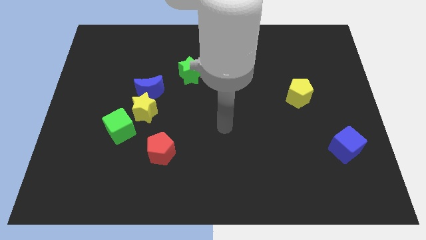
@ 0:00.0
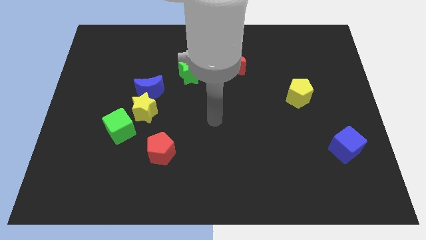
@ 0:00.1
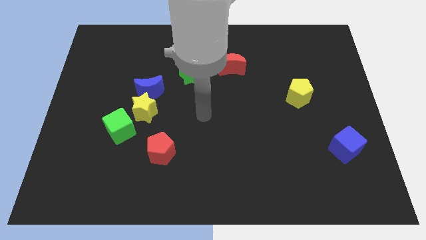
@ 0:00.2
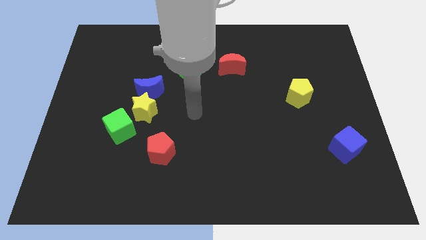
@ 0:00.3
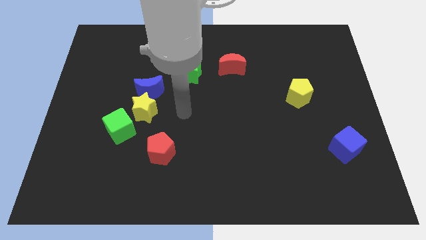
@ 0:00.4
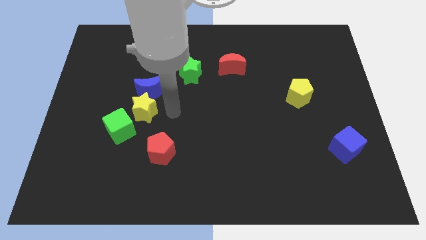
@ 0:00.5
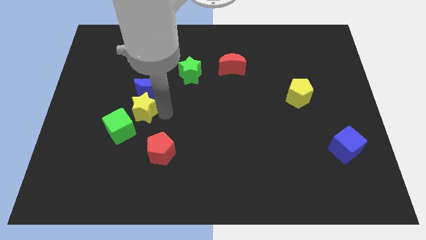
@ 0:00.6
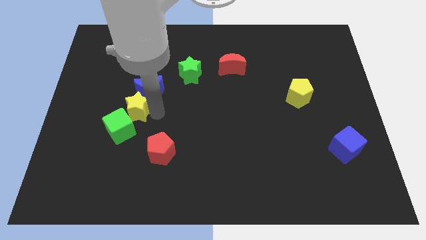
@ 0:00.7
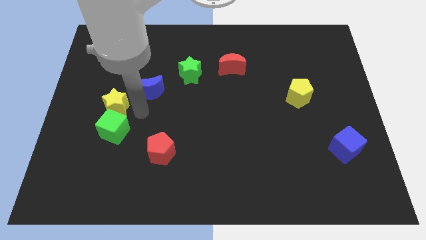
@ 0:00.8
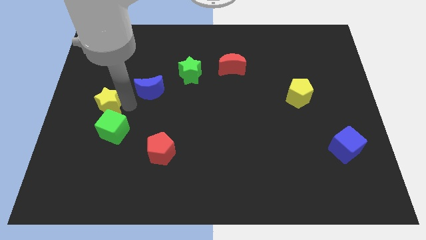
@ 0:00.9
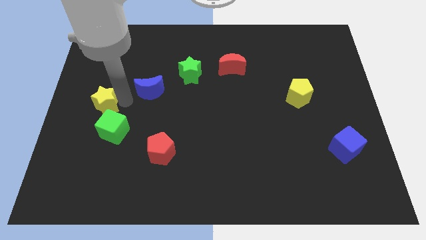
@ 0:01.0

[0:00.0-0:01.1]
move the blue moon away from the yellow star

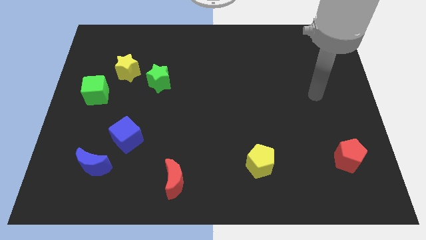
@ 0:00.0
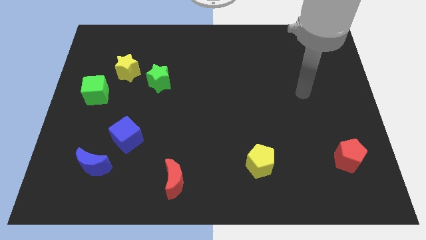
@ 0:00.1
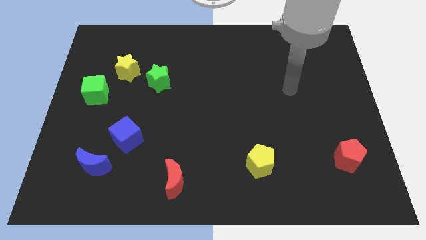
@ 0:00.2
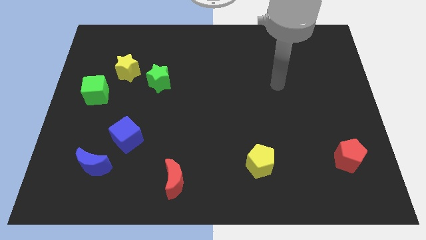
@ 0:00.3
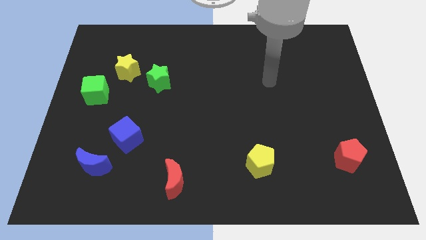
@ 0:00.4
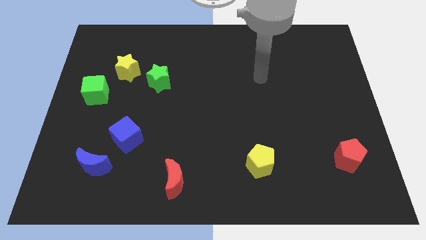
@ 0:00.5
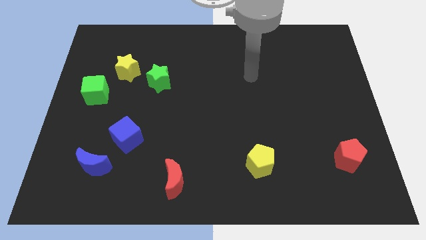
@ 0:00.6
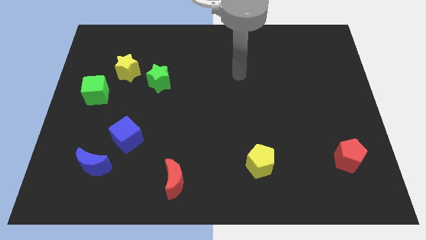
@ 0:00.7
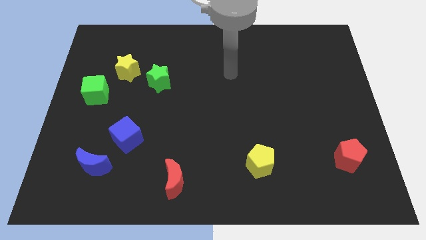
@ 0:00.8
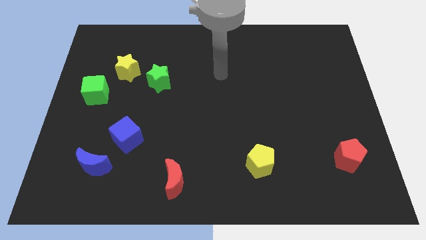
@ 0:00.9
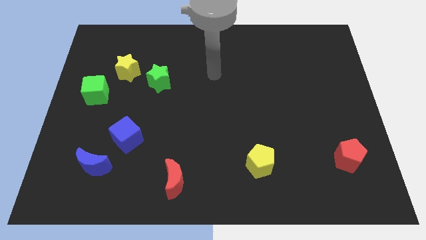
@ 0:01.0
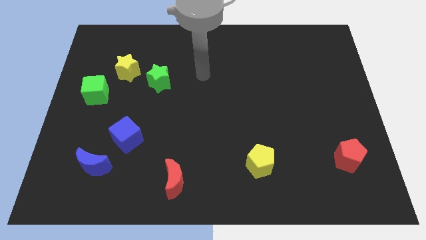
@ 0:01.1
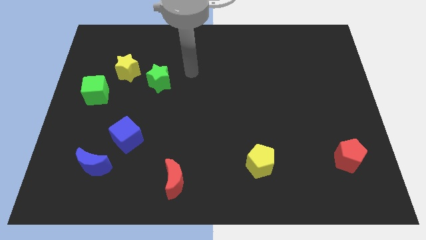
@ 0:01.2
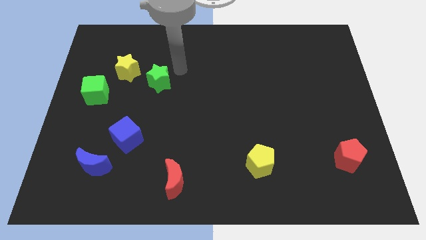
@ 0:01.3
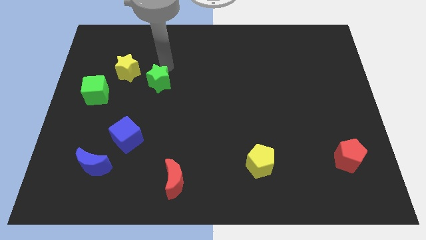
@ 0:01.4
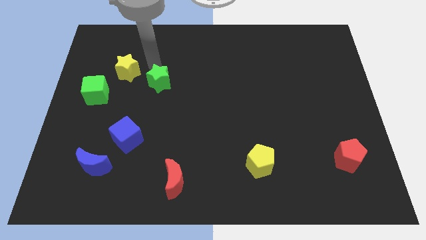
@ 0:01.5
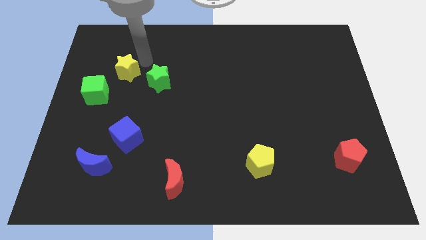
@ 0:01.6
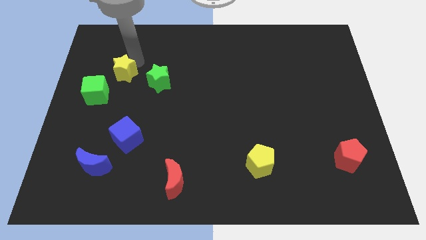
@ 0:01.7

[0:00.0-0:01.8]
separate the green star from the yellow star

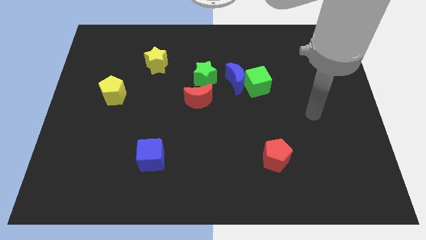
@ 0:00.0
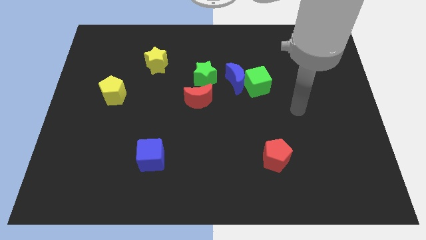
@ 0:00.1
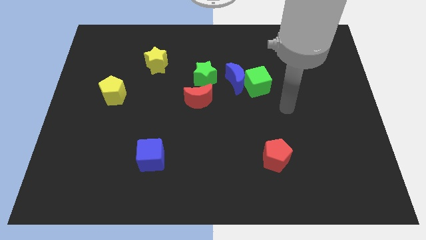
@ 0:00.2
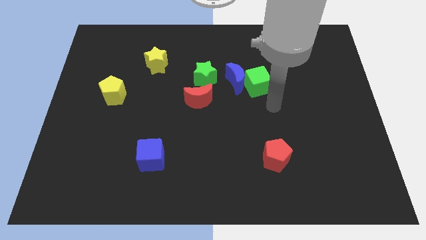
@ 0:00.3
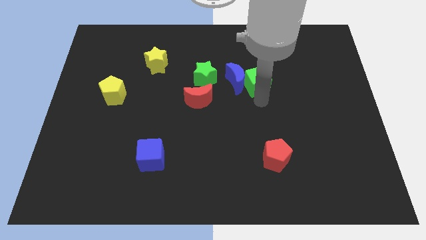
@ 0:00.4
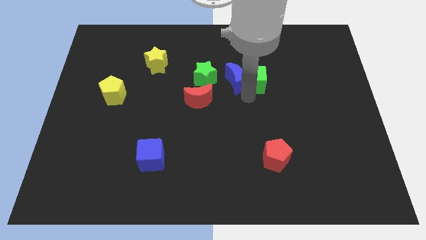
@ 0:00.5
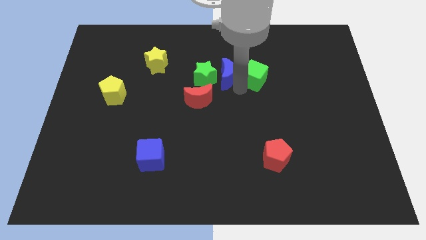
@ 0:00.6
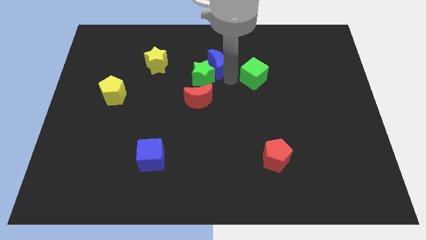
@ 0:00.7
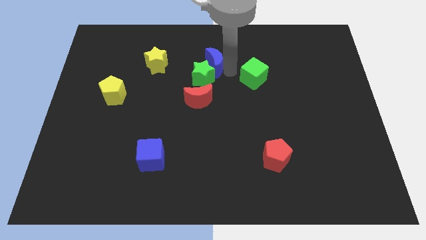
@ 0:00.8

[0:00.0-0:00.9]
pull the green cube apart from the blue moon

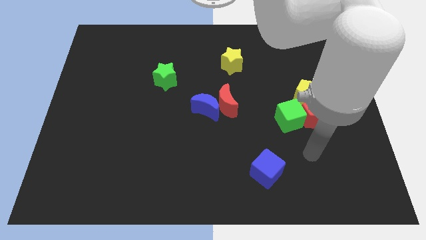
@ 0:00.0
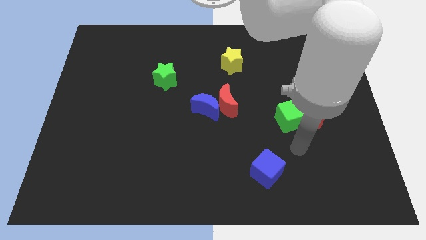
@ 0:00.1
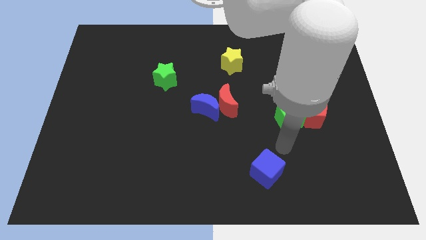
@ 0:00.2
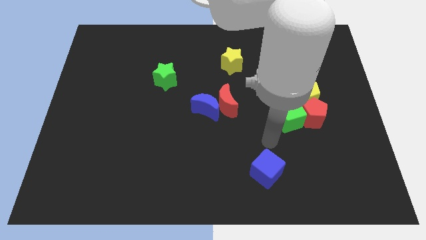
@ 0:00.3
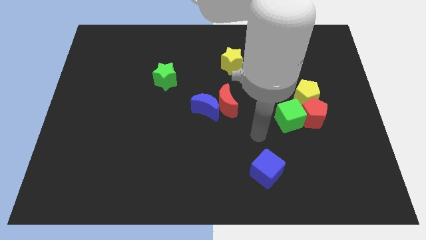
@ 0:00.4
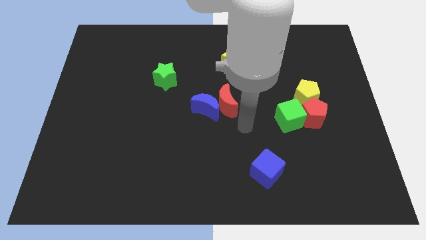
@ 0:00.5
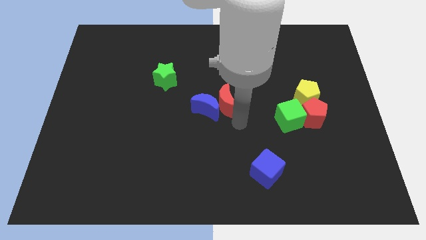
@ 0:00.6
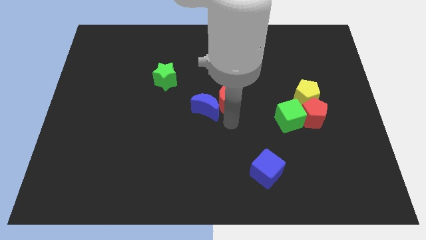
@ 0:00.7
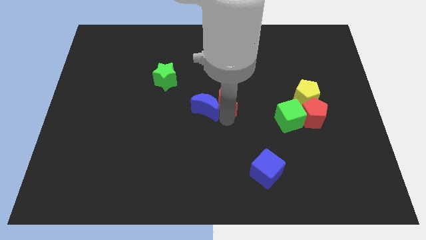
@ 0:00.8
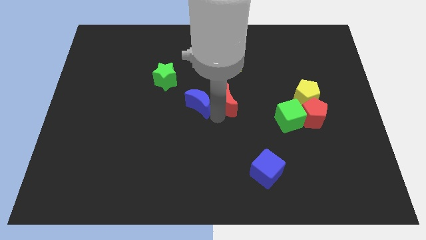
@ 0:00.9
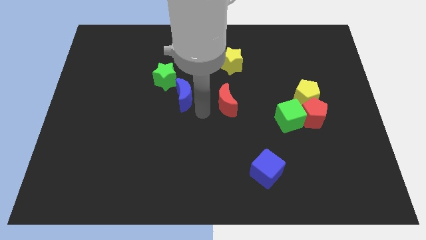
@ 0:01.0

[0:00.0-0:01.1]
move the red moon away from the blue moon

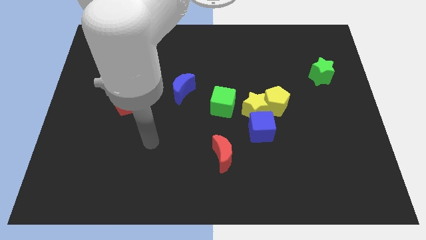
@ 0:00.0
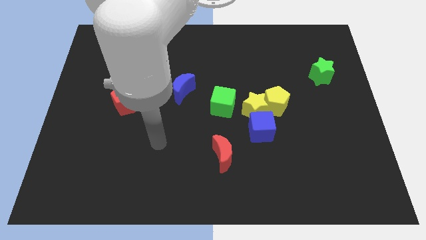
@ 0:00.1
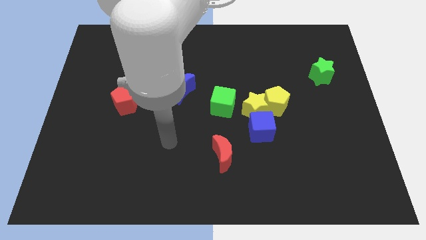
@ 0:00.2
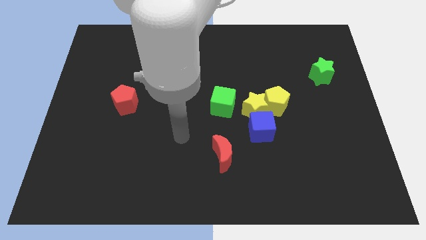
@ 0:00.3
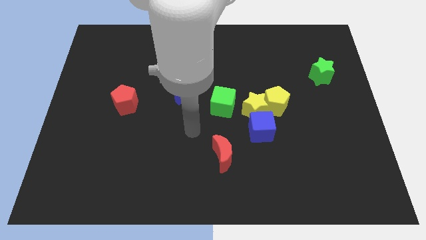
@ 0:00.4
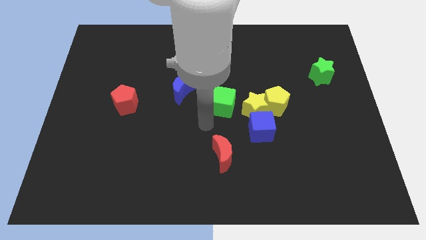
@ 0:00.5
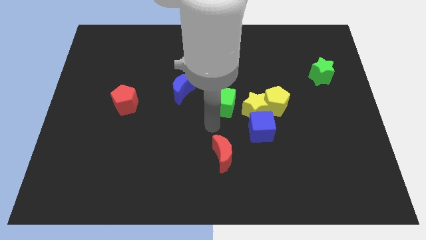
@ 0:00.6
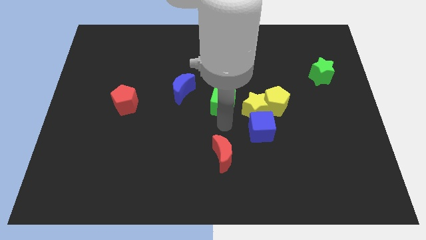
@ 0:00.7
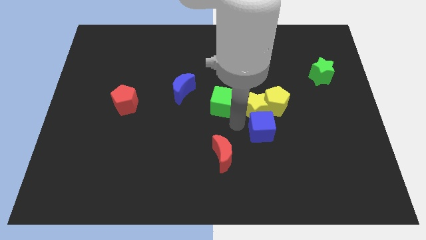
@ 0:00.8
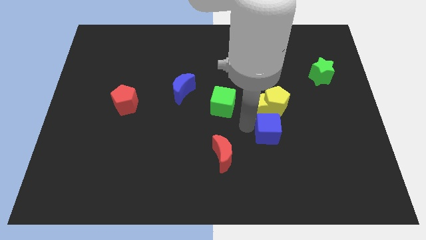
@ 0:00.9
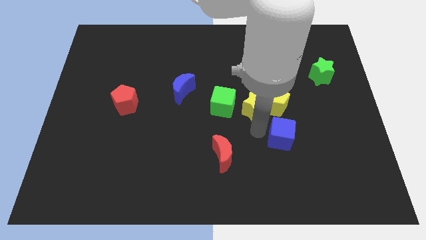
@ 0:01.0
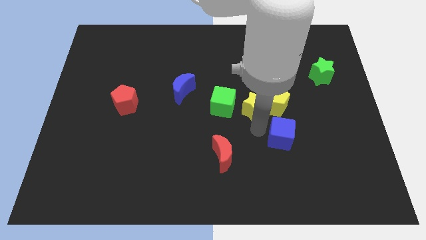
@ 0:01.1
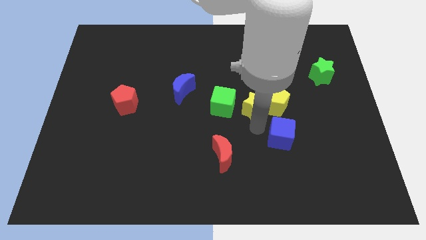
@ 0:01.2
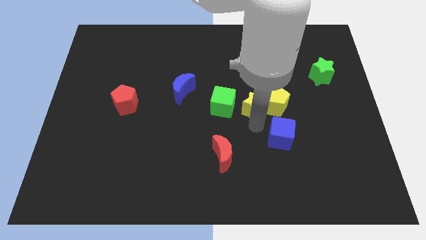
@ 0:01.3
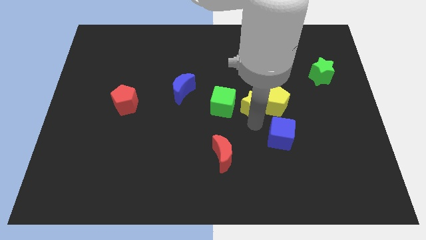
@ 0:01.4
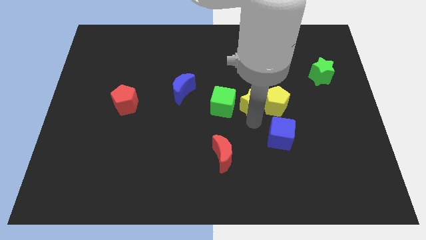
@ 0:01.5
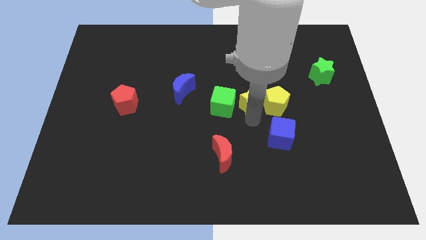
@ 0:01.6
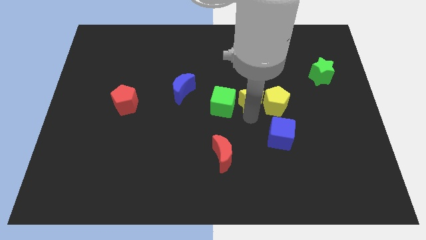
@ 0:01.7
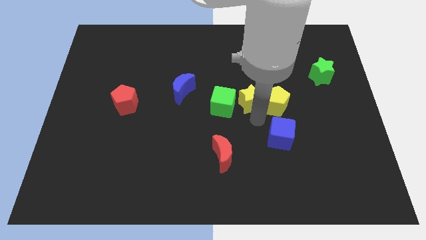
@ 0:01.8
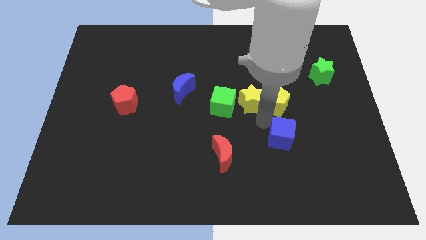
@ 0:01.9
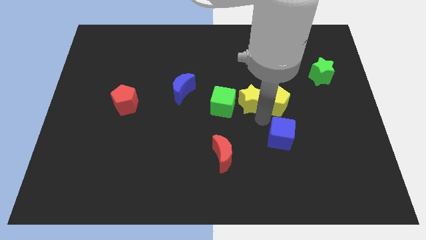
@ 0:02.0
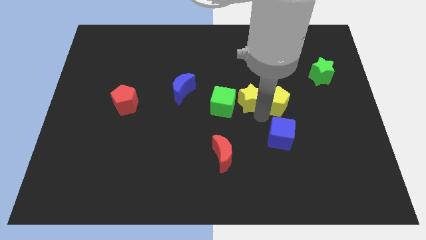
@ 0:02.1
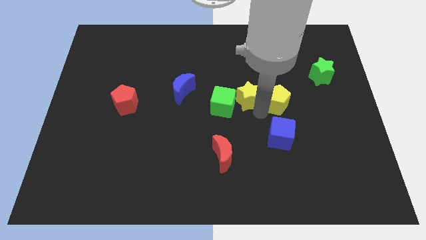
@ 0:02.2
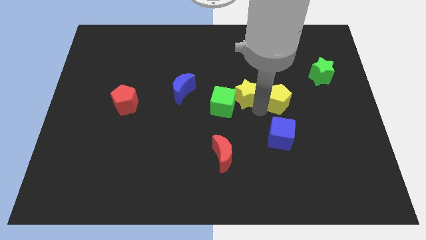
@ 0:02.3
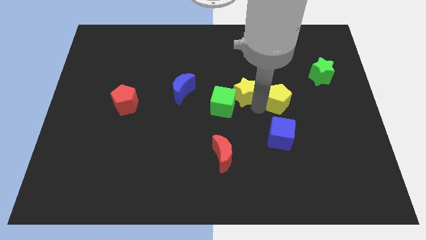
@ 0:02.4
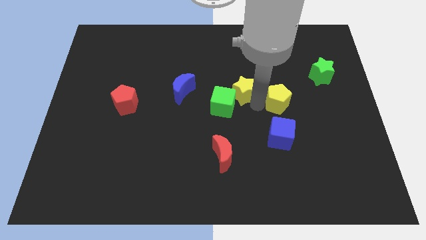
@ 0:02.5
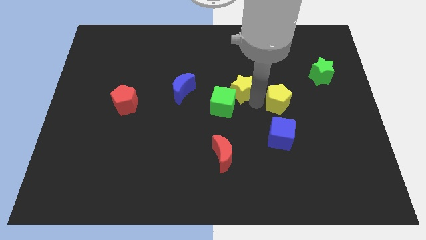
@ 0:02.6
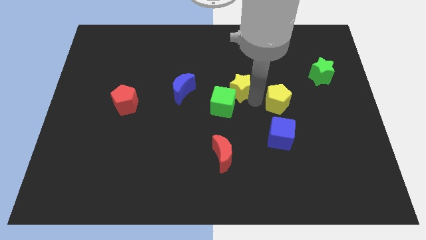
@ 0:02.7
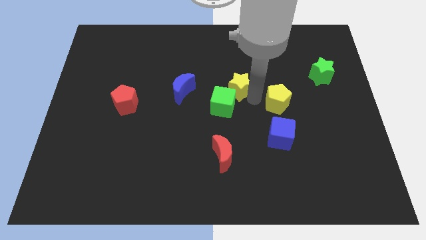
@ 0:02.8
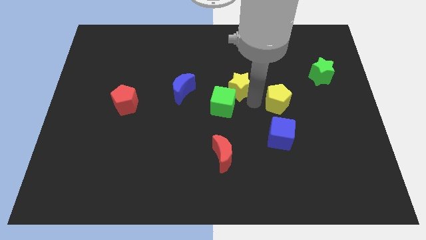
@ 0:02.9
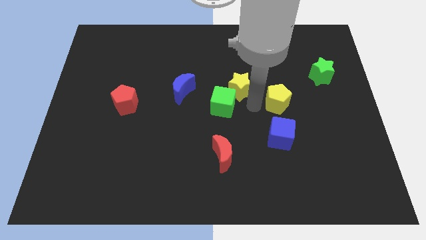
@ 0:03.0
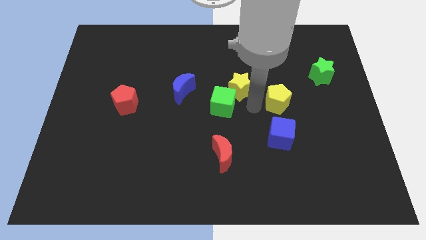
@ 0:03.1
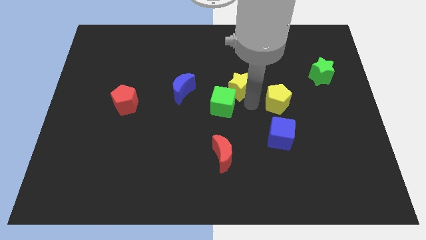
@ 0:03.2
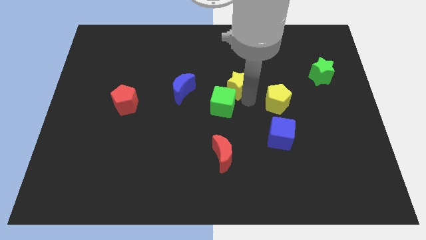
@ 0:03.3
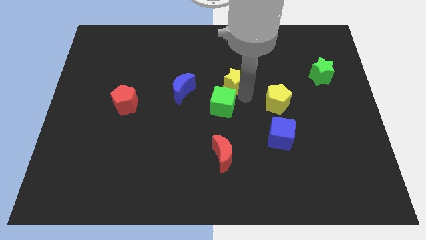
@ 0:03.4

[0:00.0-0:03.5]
pull the yellow star apart from the clump

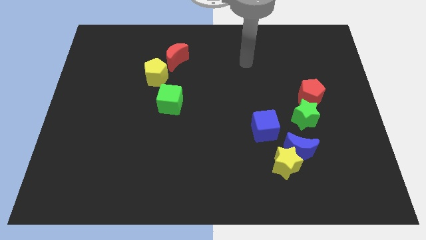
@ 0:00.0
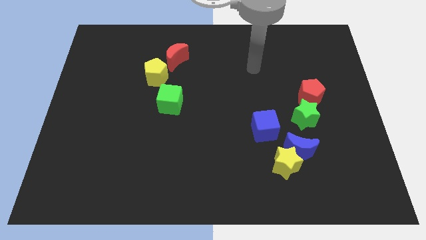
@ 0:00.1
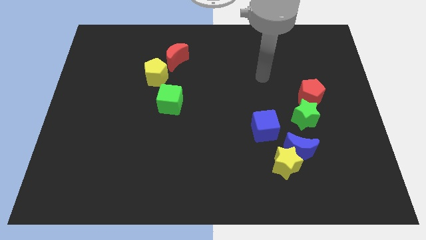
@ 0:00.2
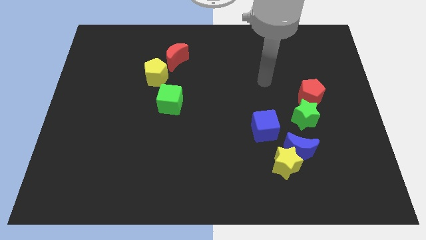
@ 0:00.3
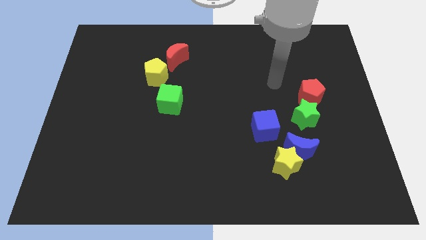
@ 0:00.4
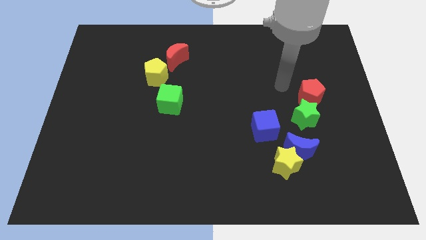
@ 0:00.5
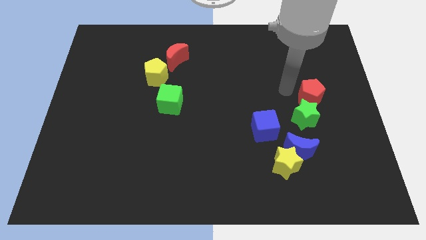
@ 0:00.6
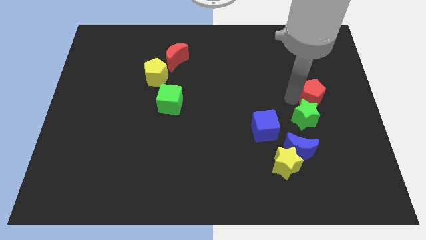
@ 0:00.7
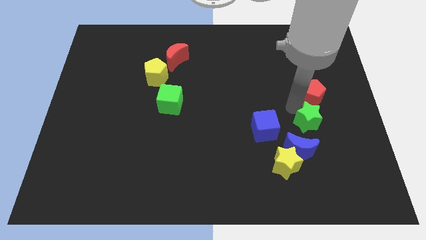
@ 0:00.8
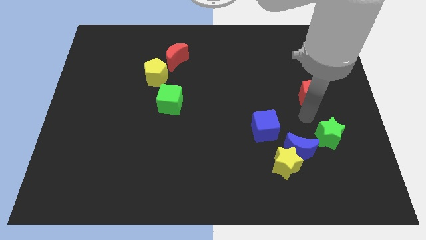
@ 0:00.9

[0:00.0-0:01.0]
move the red pentagon away from the green star
